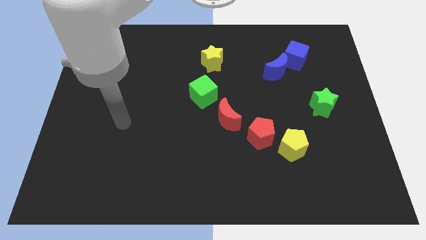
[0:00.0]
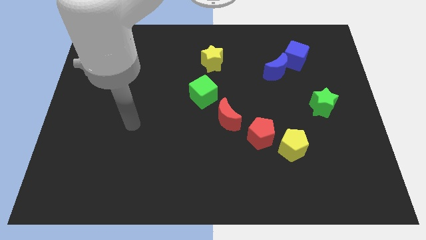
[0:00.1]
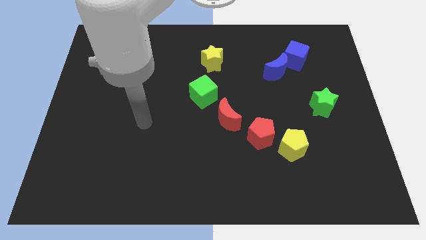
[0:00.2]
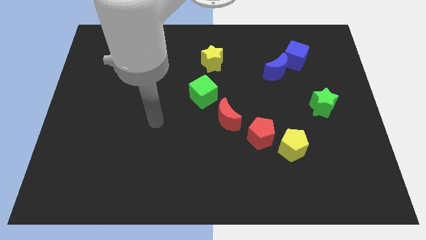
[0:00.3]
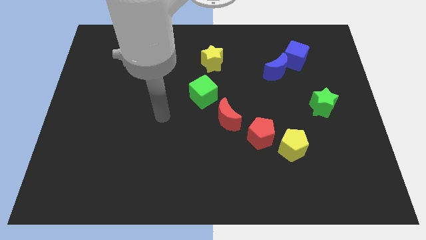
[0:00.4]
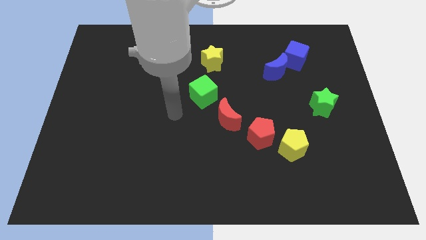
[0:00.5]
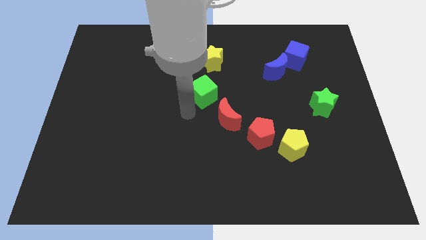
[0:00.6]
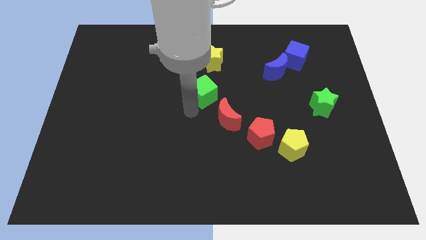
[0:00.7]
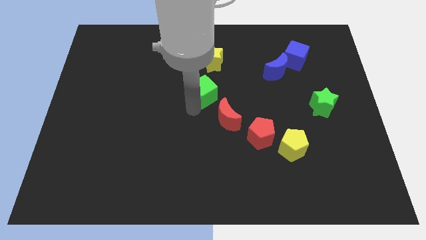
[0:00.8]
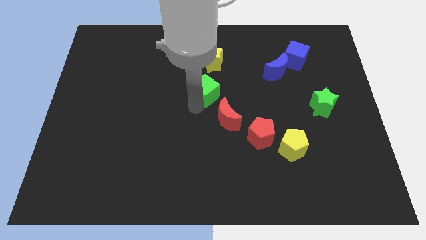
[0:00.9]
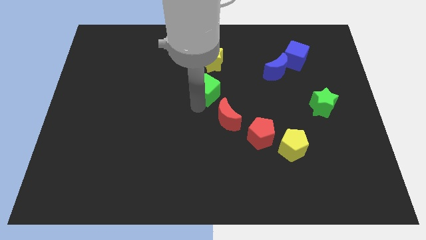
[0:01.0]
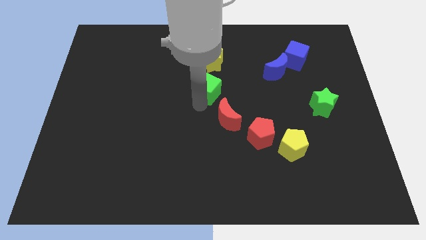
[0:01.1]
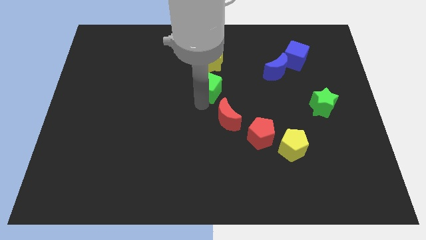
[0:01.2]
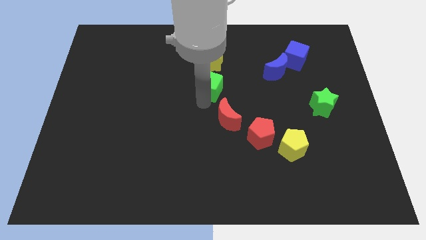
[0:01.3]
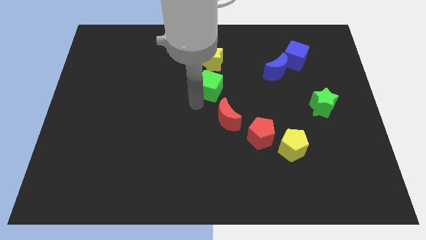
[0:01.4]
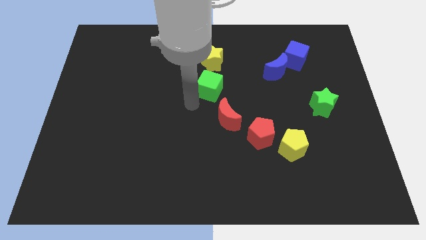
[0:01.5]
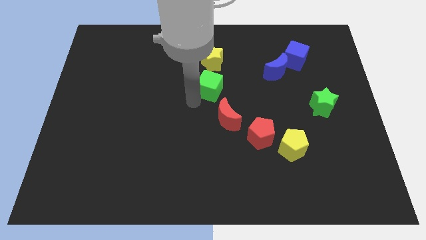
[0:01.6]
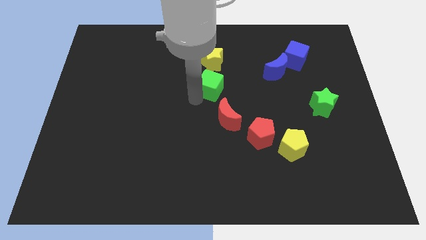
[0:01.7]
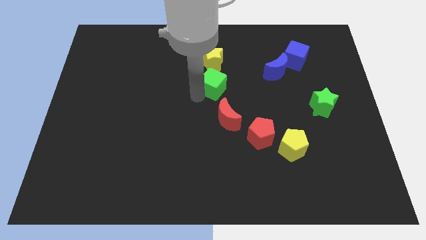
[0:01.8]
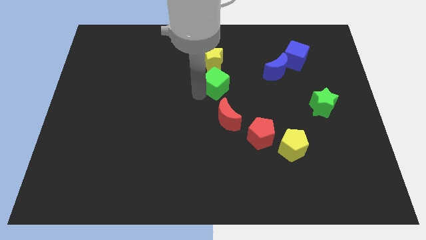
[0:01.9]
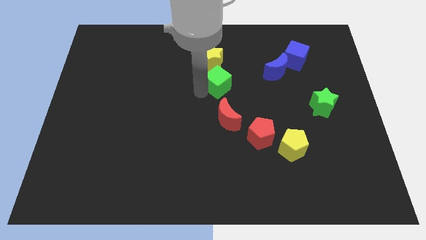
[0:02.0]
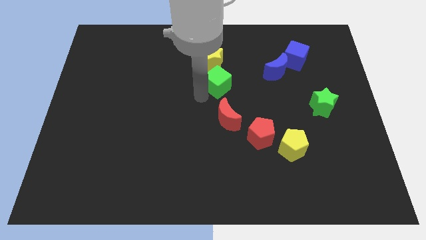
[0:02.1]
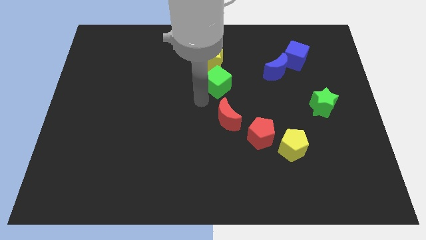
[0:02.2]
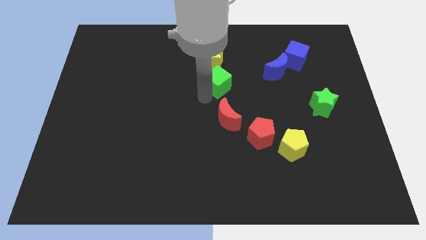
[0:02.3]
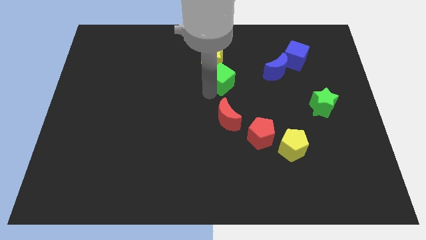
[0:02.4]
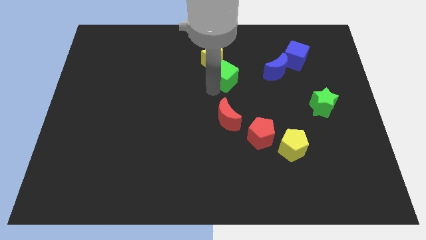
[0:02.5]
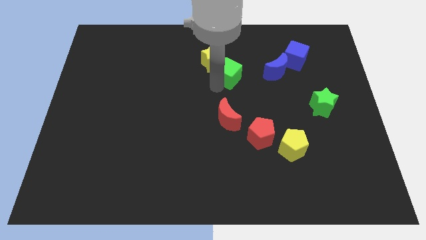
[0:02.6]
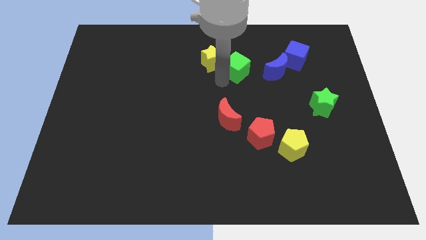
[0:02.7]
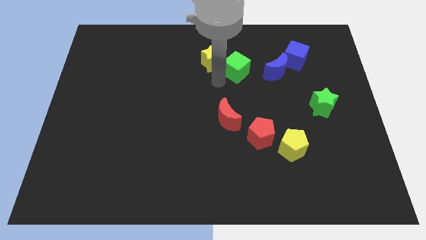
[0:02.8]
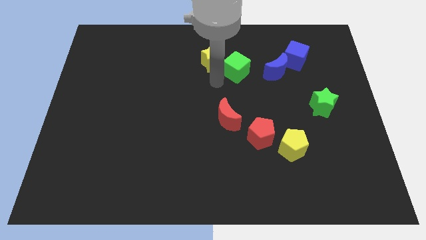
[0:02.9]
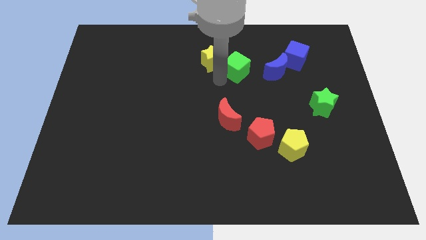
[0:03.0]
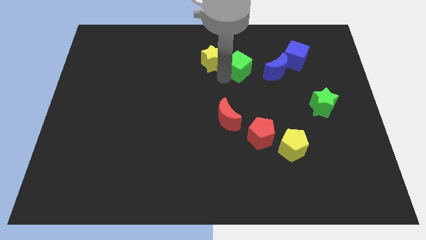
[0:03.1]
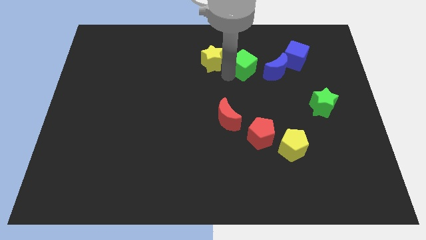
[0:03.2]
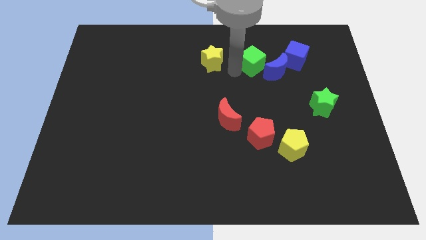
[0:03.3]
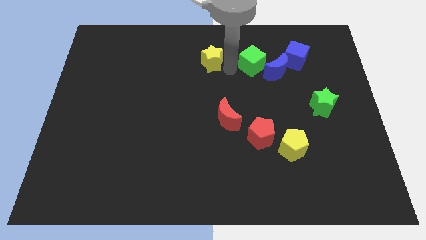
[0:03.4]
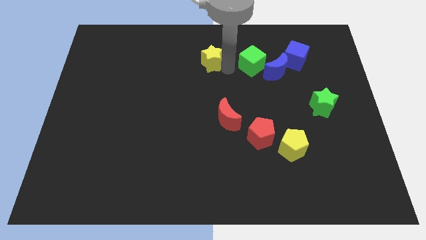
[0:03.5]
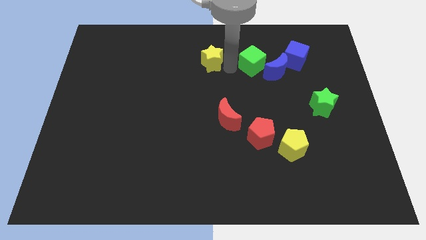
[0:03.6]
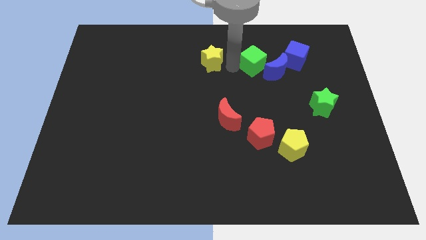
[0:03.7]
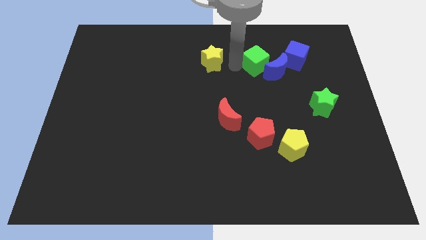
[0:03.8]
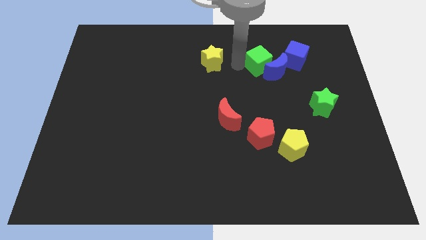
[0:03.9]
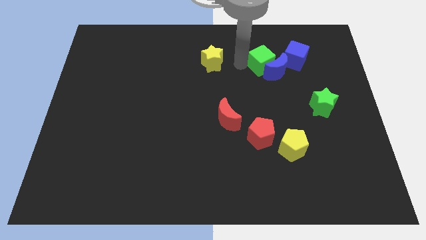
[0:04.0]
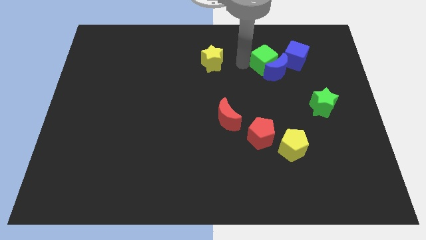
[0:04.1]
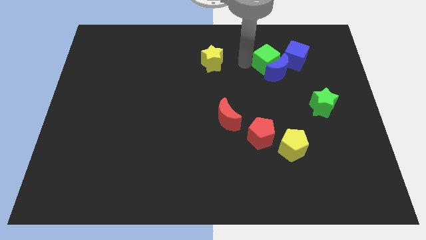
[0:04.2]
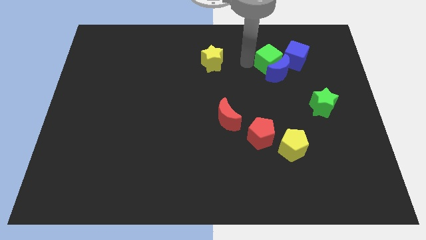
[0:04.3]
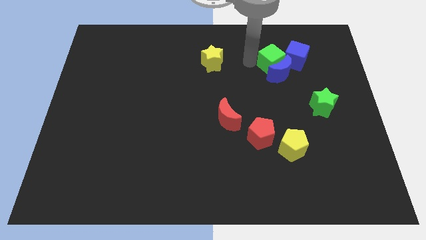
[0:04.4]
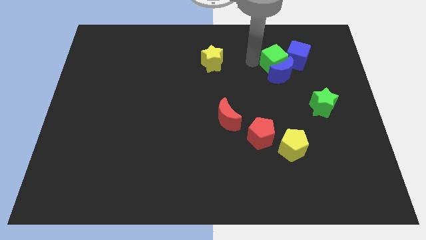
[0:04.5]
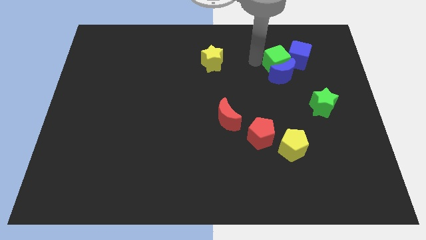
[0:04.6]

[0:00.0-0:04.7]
push the green cube next to the blue cube

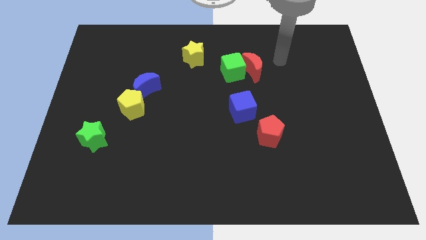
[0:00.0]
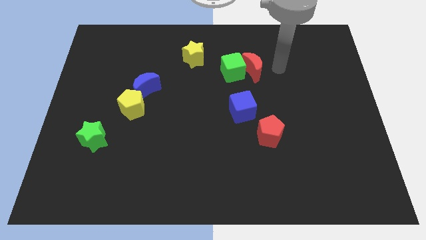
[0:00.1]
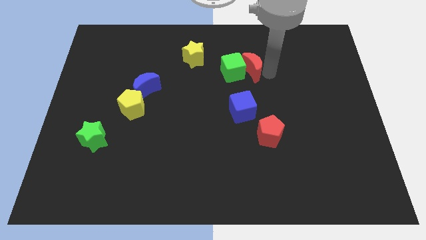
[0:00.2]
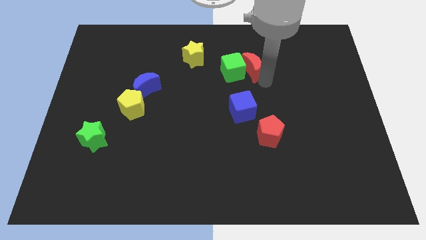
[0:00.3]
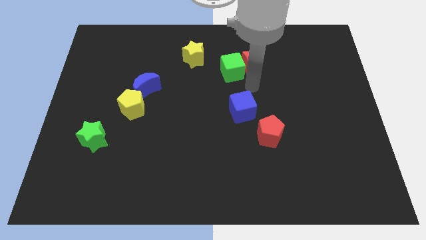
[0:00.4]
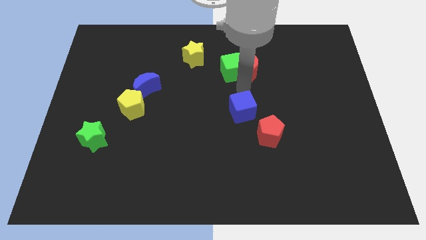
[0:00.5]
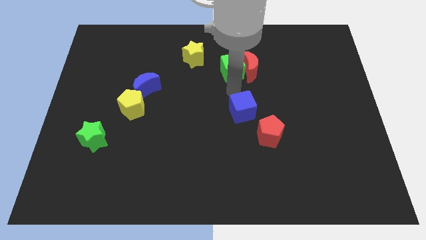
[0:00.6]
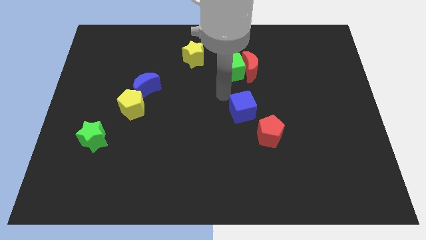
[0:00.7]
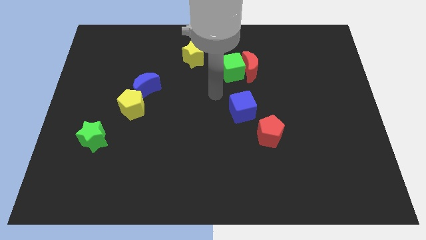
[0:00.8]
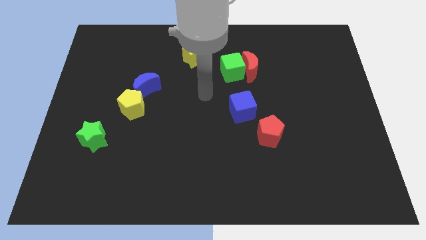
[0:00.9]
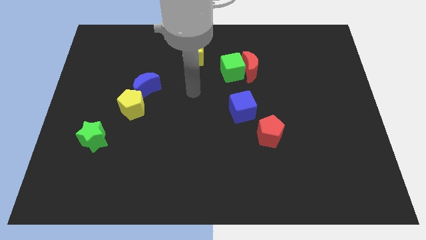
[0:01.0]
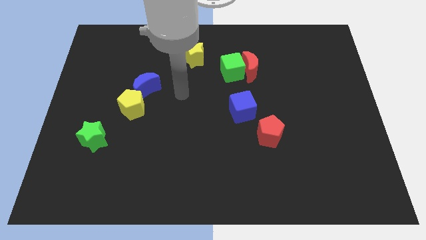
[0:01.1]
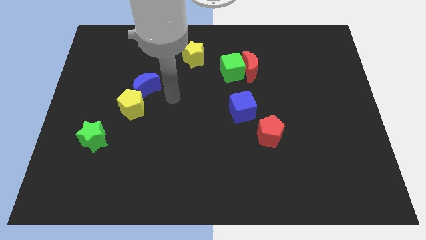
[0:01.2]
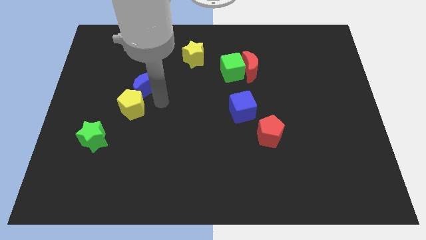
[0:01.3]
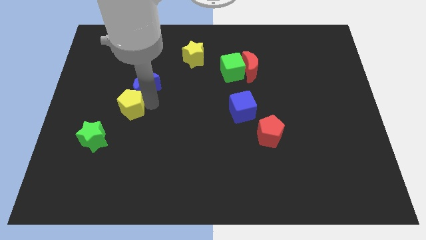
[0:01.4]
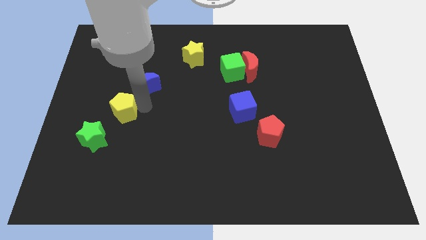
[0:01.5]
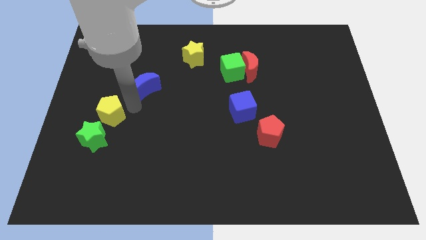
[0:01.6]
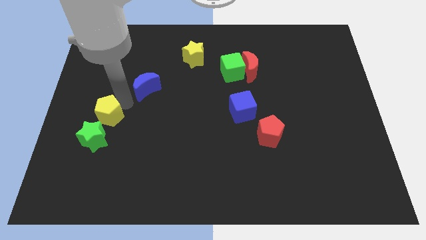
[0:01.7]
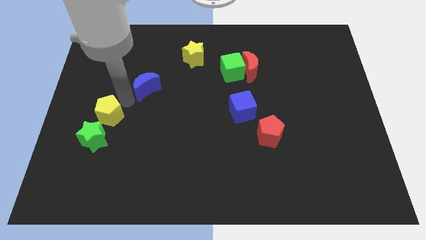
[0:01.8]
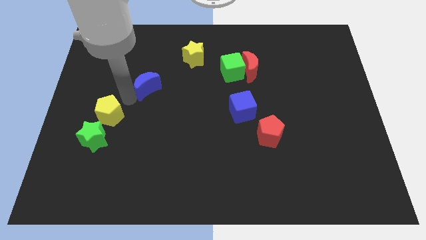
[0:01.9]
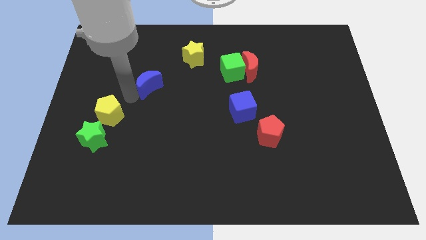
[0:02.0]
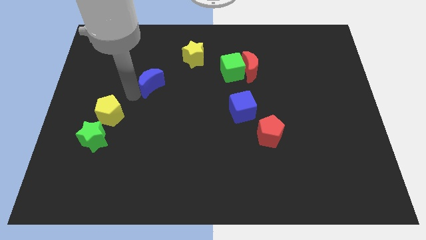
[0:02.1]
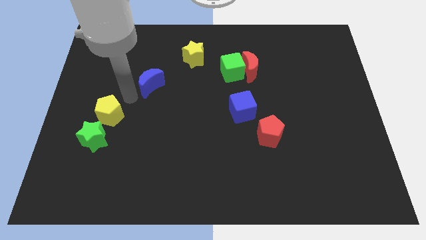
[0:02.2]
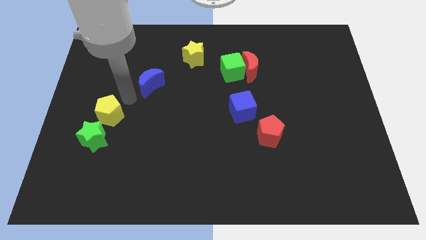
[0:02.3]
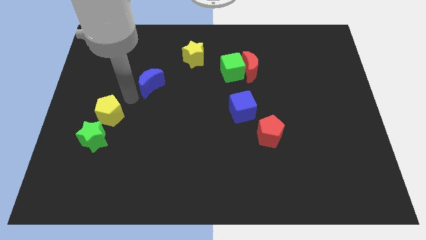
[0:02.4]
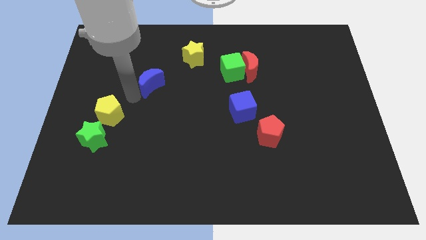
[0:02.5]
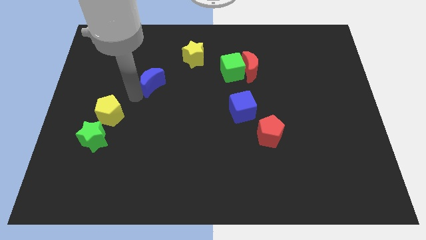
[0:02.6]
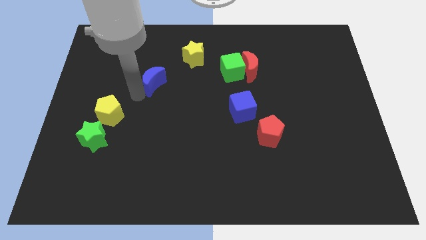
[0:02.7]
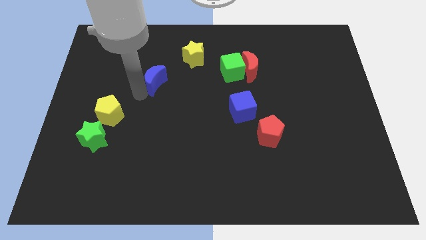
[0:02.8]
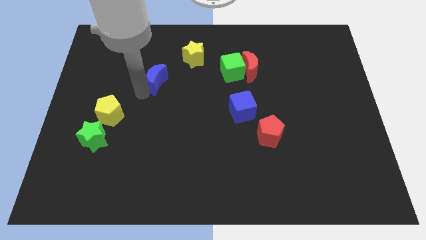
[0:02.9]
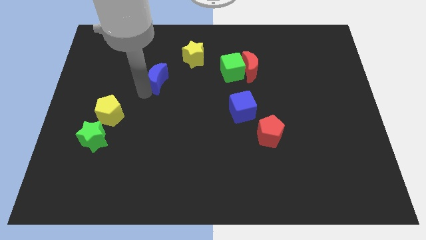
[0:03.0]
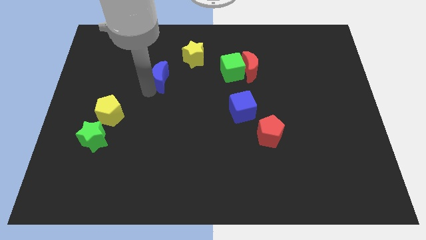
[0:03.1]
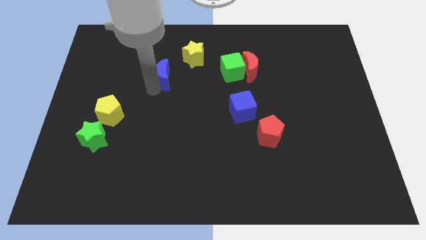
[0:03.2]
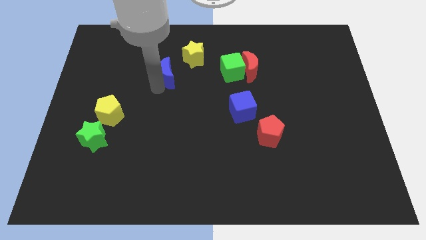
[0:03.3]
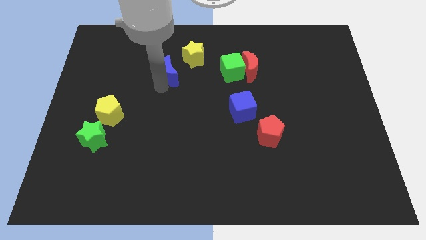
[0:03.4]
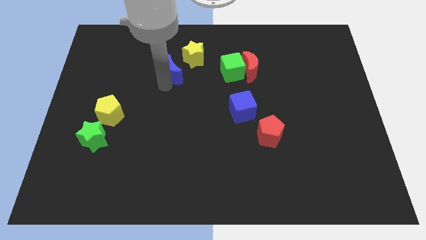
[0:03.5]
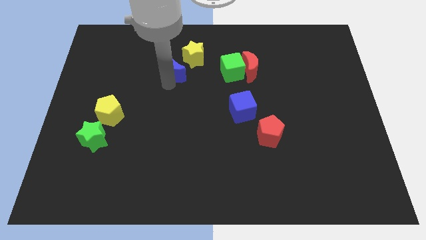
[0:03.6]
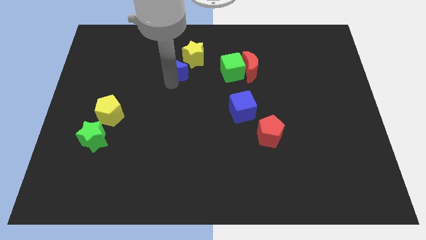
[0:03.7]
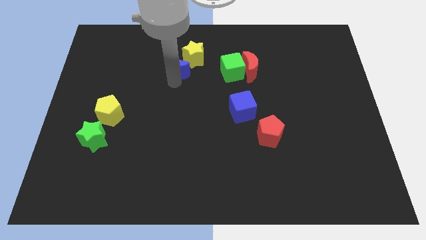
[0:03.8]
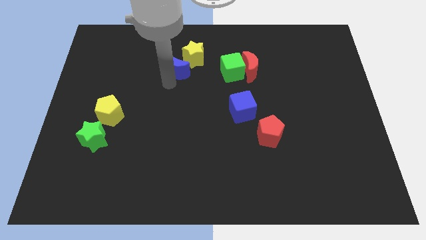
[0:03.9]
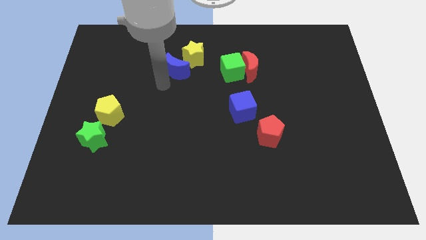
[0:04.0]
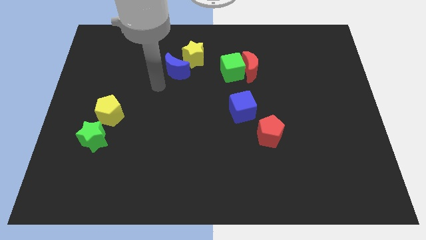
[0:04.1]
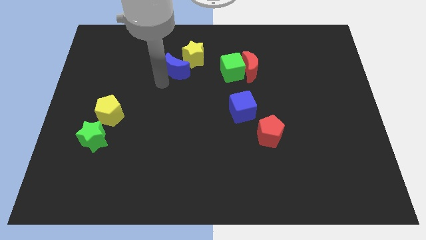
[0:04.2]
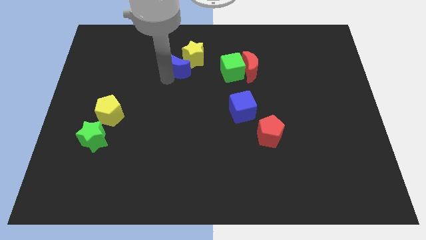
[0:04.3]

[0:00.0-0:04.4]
put the blue moon close to the yellow star
